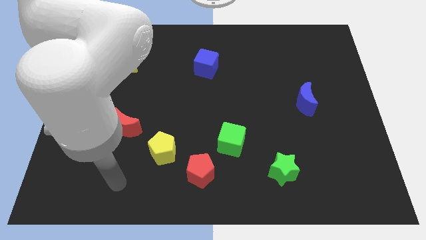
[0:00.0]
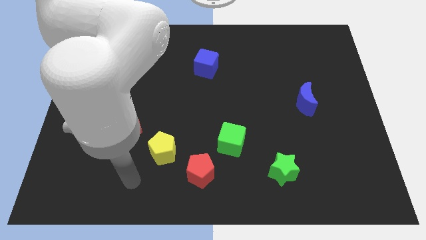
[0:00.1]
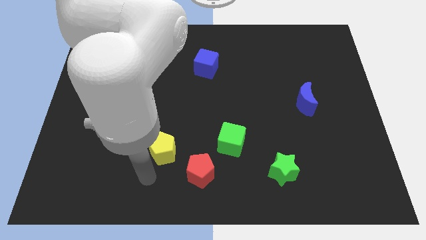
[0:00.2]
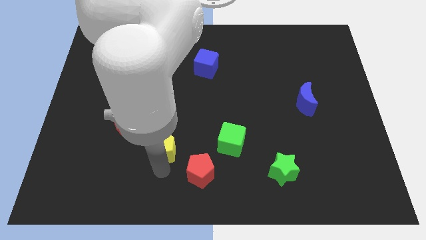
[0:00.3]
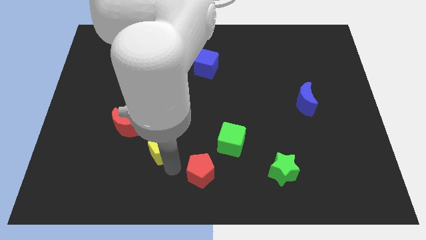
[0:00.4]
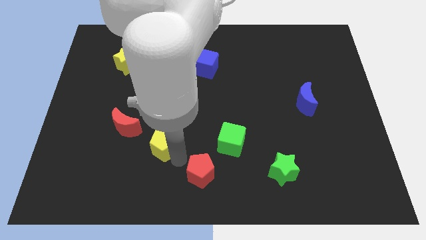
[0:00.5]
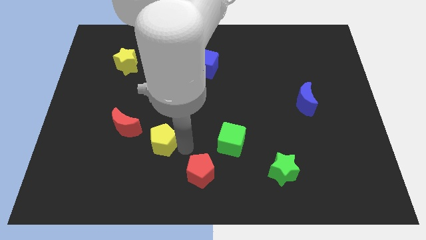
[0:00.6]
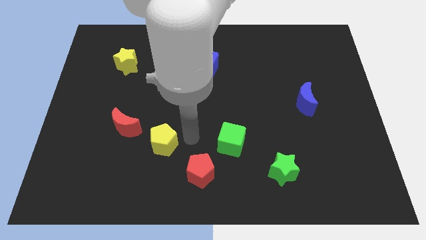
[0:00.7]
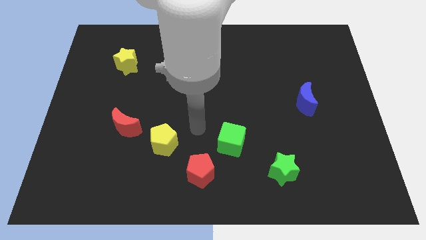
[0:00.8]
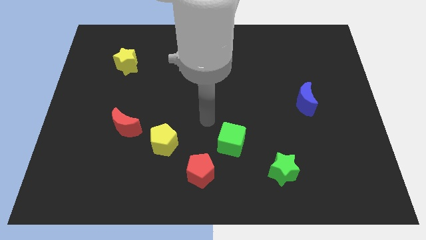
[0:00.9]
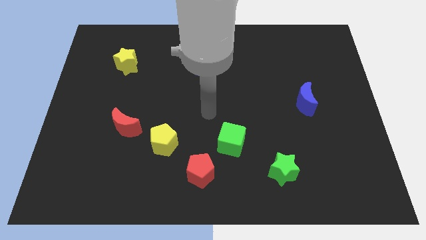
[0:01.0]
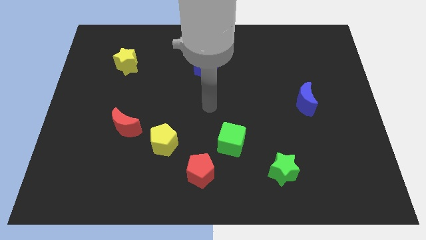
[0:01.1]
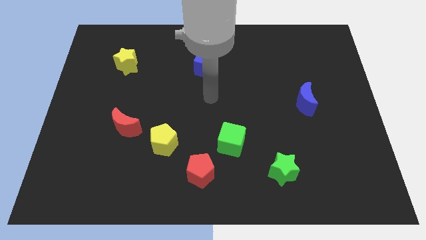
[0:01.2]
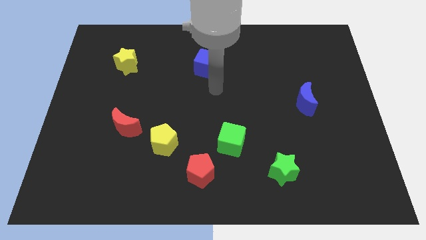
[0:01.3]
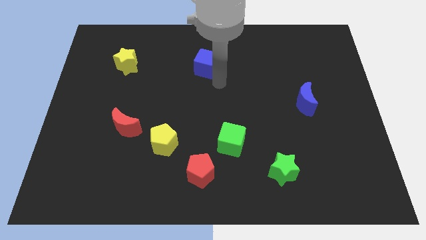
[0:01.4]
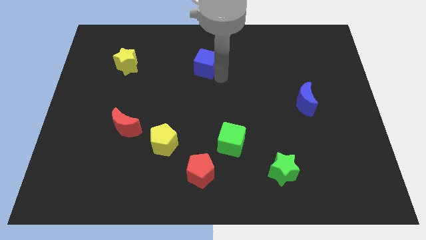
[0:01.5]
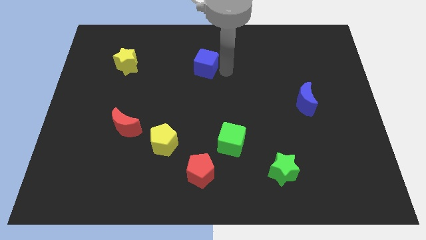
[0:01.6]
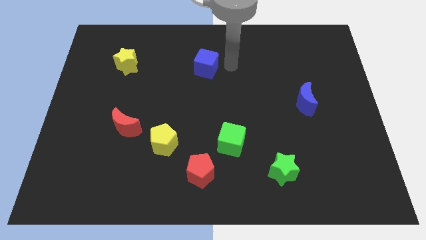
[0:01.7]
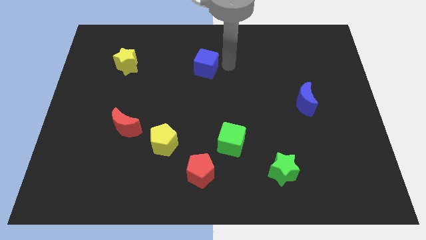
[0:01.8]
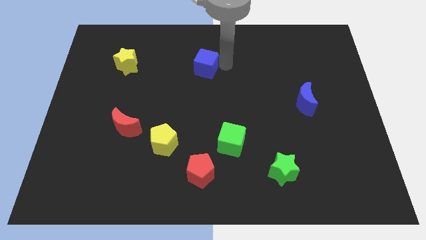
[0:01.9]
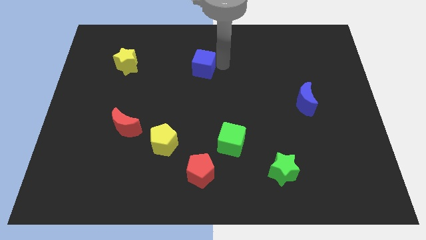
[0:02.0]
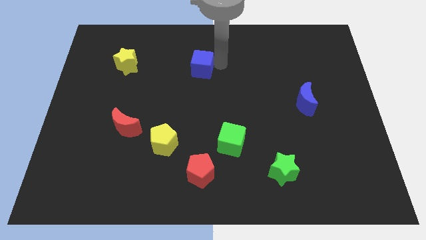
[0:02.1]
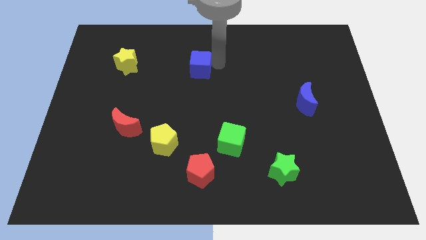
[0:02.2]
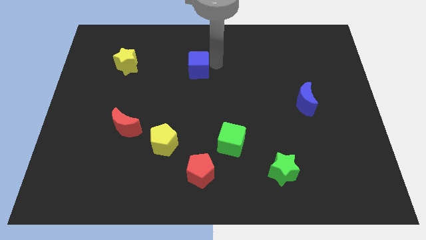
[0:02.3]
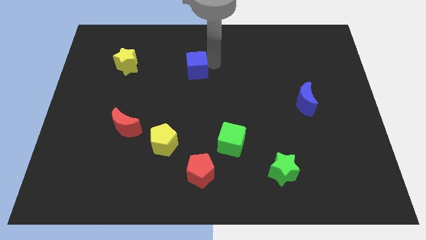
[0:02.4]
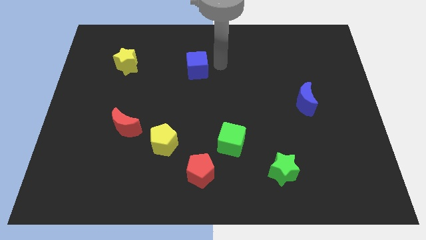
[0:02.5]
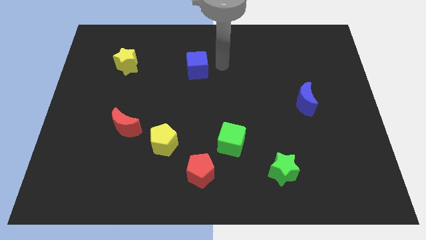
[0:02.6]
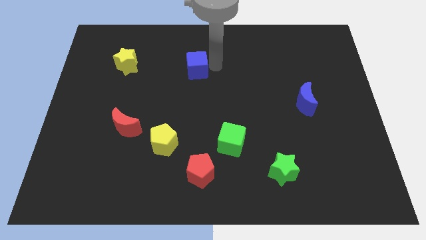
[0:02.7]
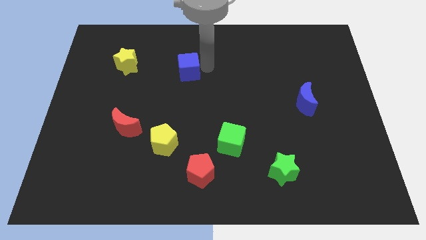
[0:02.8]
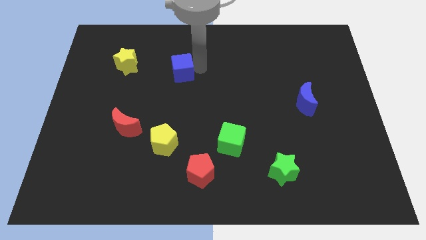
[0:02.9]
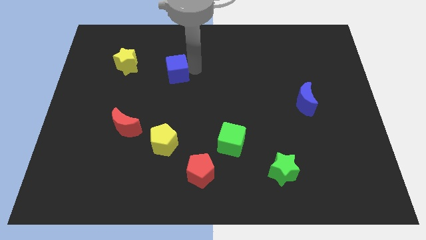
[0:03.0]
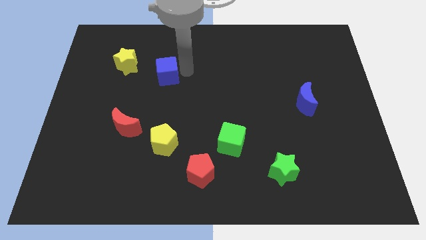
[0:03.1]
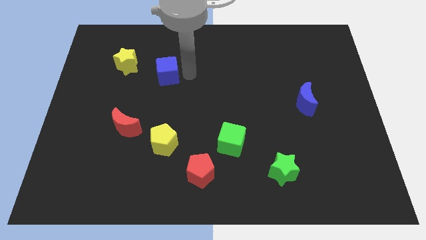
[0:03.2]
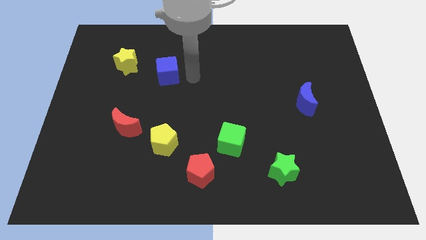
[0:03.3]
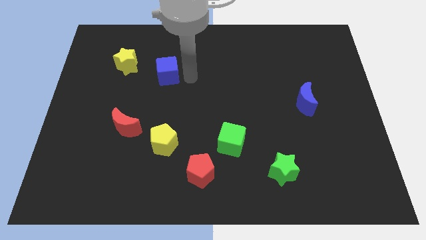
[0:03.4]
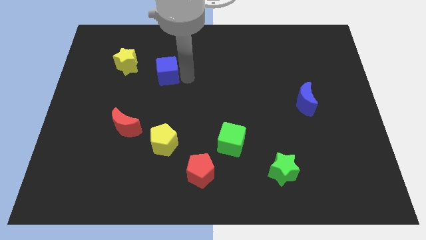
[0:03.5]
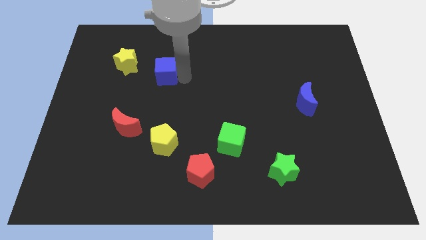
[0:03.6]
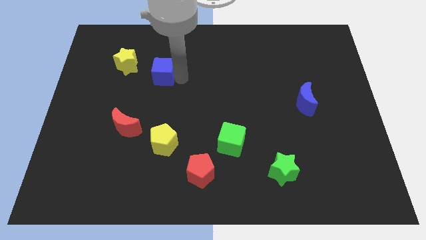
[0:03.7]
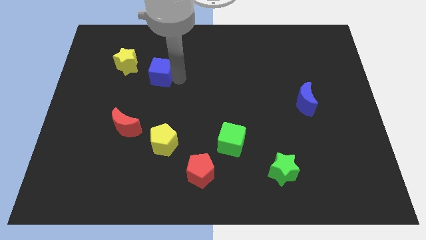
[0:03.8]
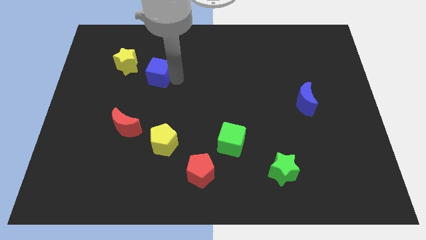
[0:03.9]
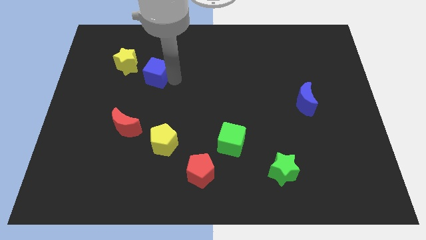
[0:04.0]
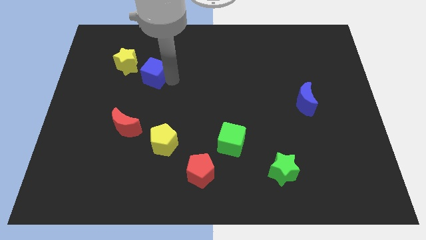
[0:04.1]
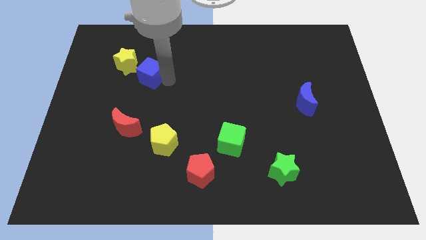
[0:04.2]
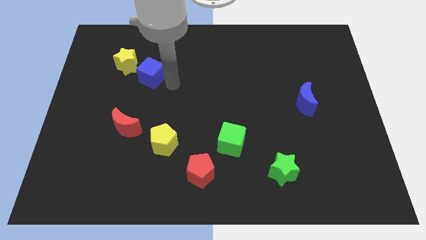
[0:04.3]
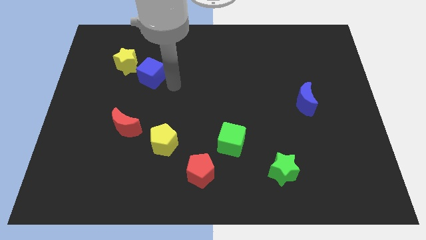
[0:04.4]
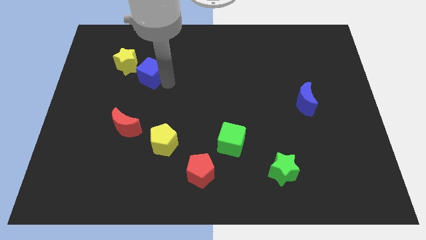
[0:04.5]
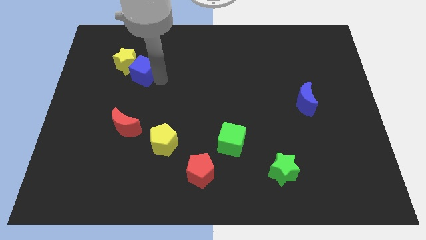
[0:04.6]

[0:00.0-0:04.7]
slide the blue cube to the yellow star

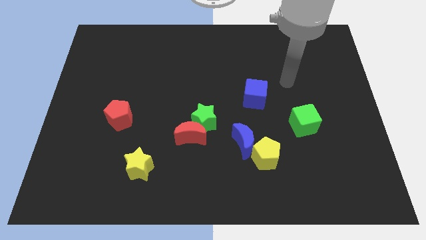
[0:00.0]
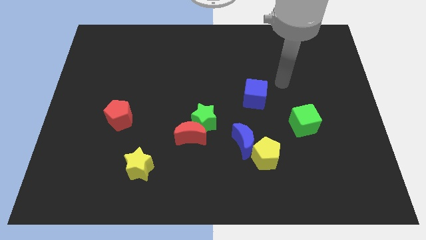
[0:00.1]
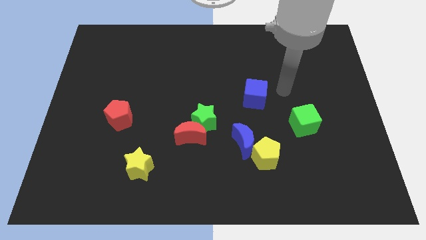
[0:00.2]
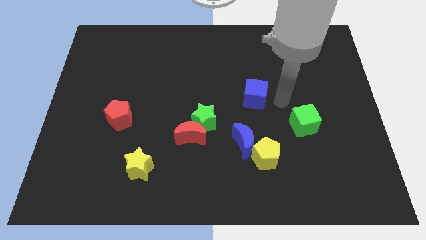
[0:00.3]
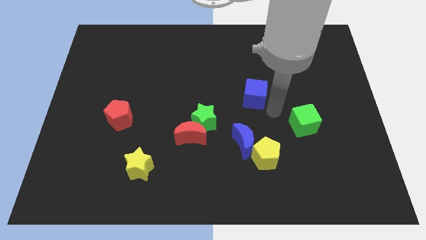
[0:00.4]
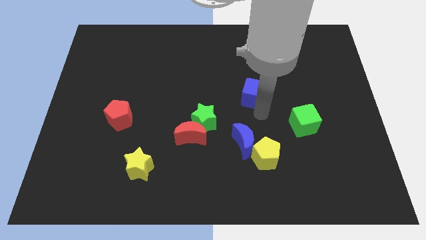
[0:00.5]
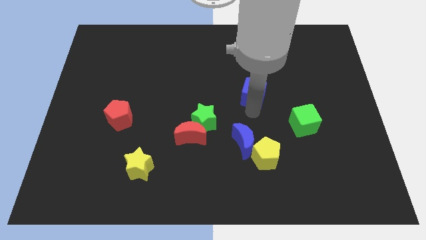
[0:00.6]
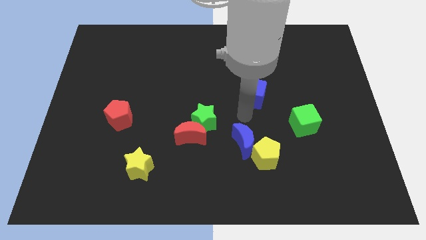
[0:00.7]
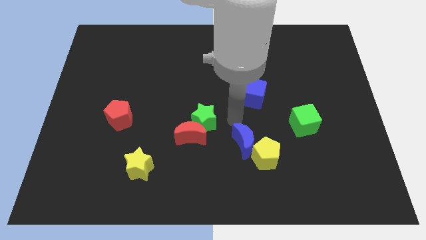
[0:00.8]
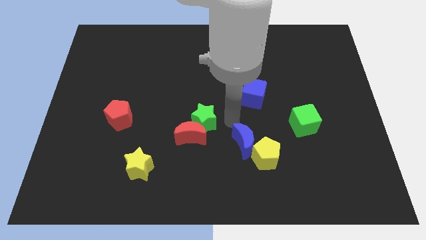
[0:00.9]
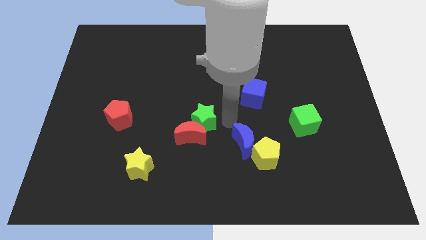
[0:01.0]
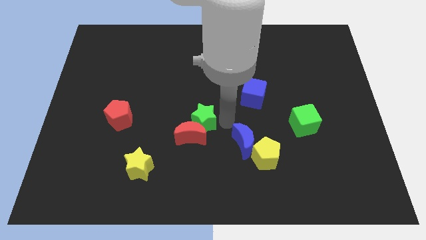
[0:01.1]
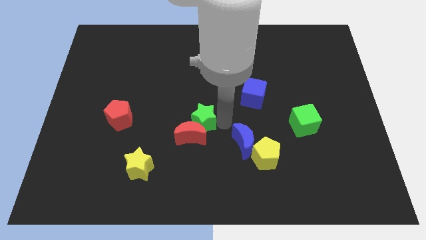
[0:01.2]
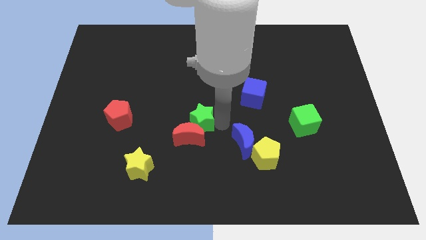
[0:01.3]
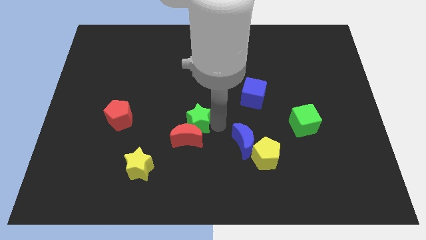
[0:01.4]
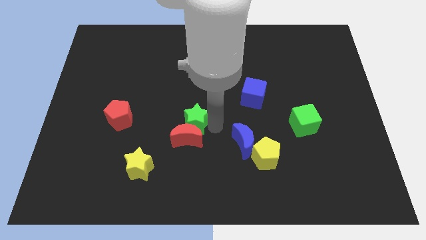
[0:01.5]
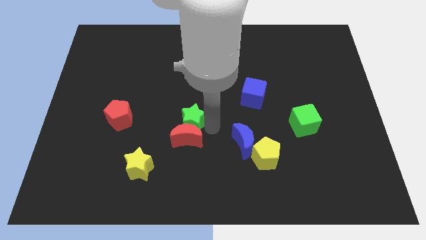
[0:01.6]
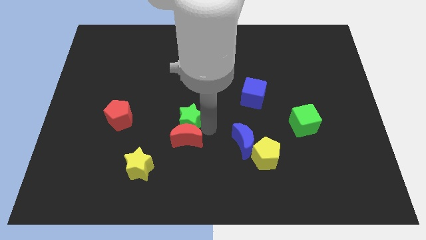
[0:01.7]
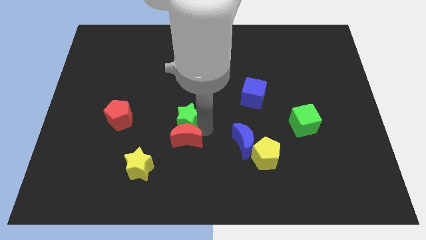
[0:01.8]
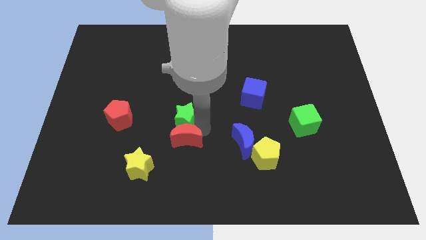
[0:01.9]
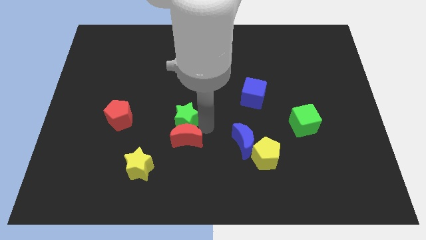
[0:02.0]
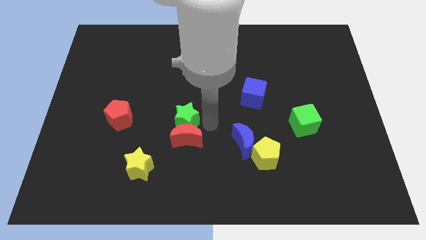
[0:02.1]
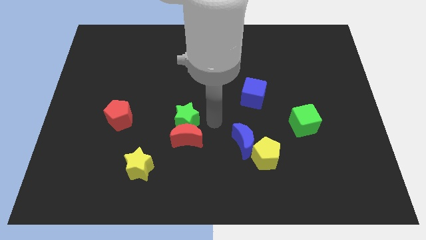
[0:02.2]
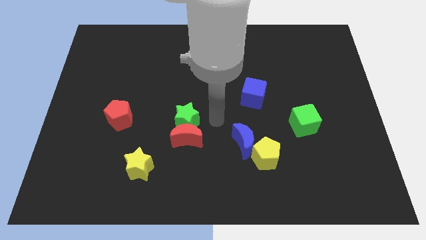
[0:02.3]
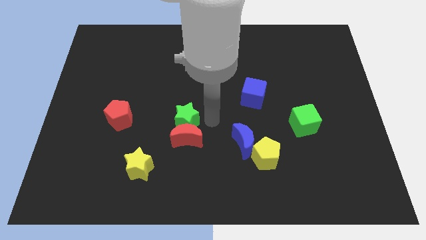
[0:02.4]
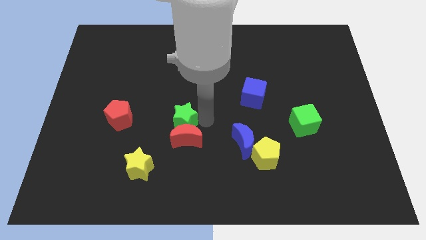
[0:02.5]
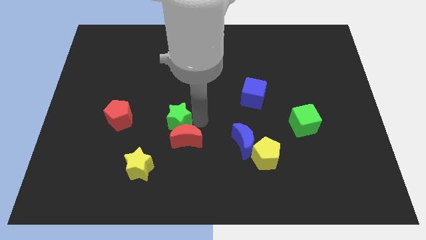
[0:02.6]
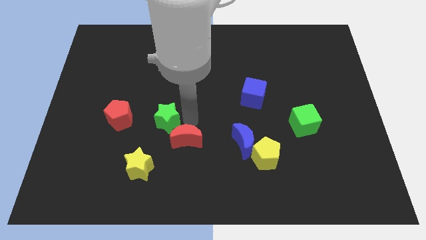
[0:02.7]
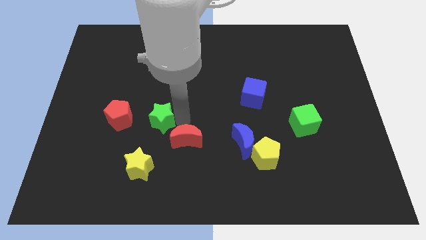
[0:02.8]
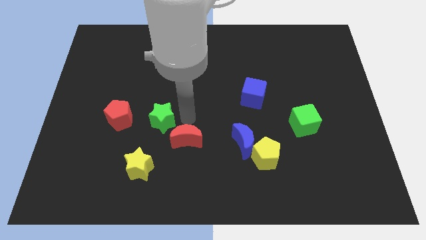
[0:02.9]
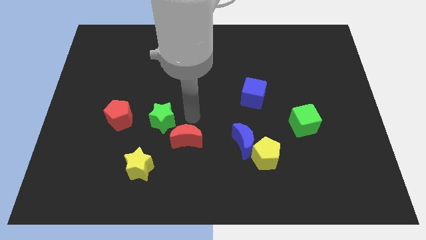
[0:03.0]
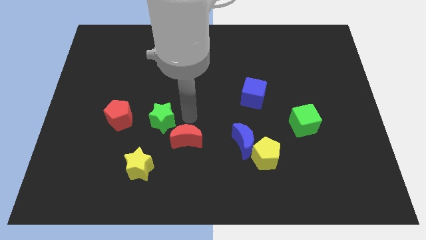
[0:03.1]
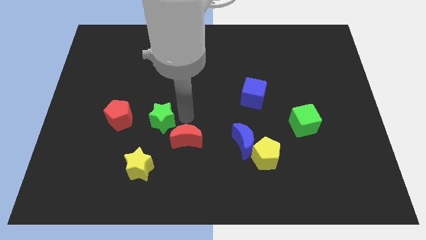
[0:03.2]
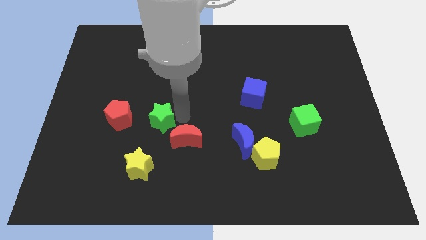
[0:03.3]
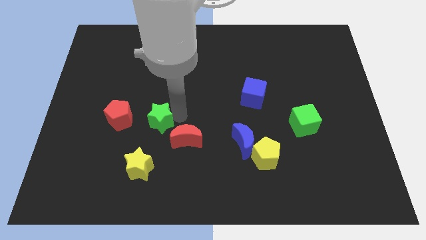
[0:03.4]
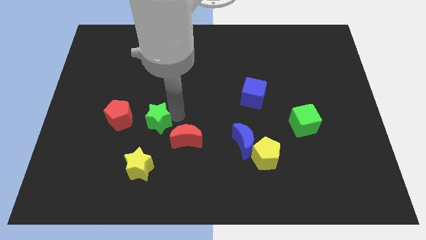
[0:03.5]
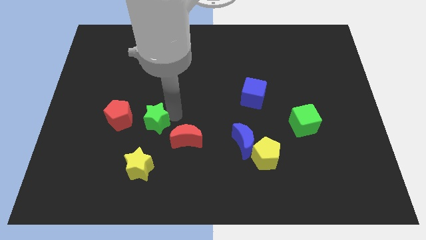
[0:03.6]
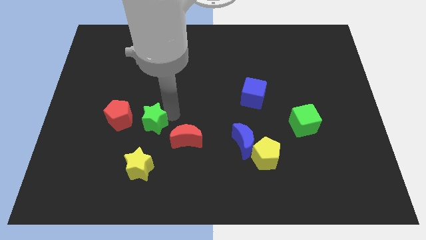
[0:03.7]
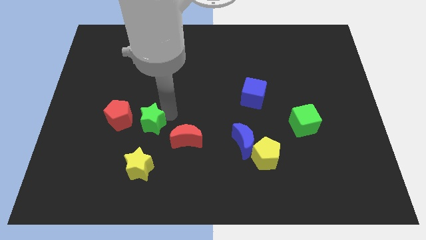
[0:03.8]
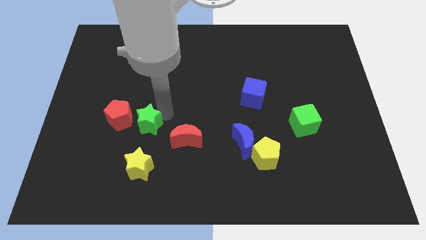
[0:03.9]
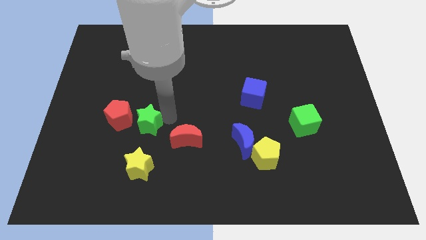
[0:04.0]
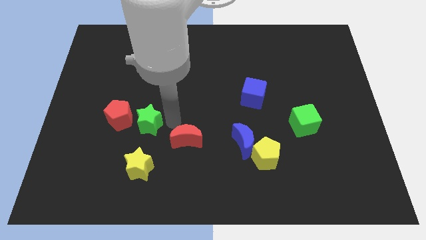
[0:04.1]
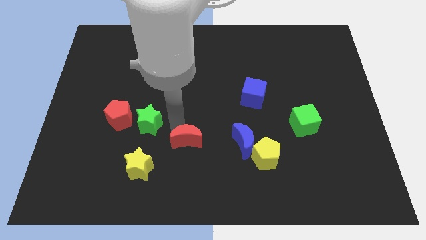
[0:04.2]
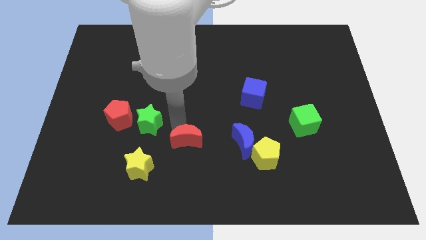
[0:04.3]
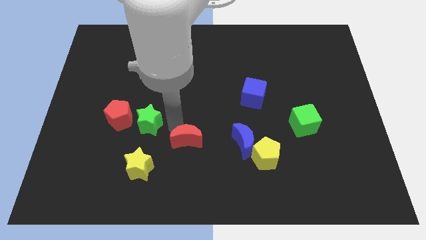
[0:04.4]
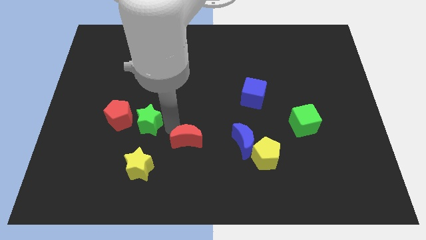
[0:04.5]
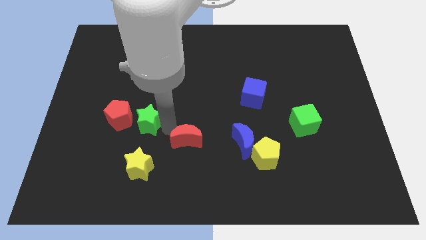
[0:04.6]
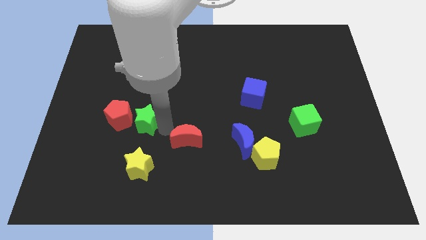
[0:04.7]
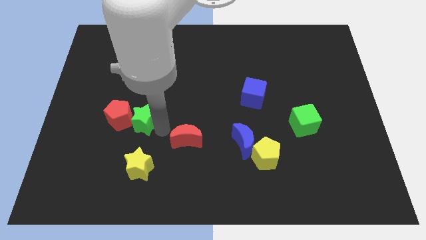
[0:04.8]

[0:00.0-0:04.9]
push the green star towards the red pentagon
